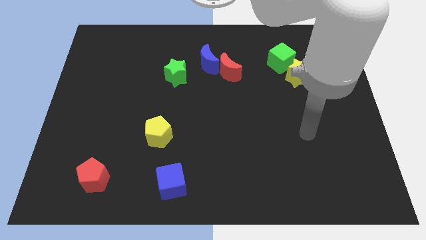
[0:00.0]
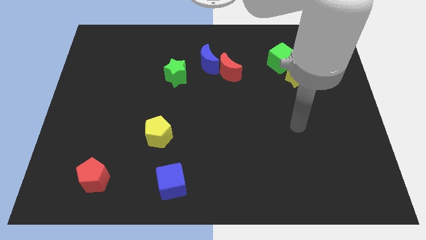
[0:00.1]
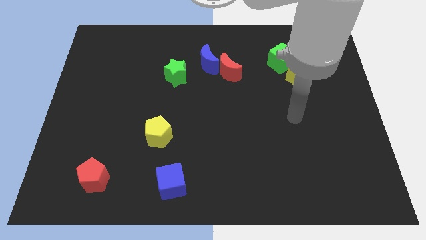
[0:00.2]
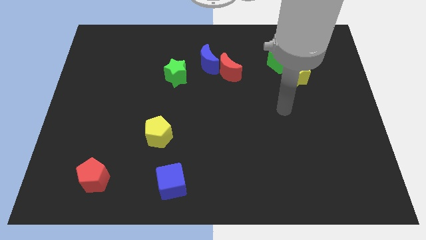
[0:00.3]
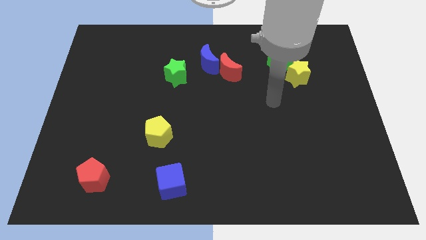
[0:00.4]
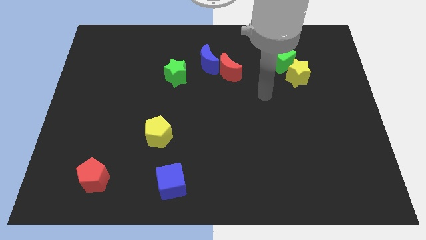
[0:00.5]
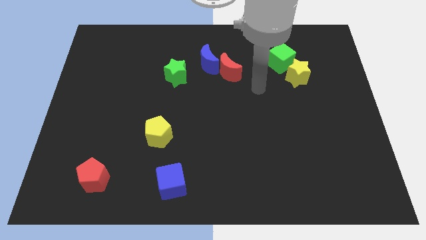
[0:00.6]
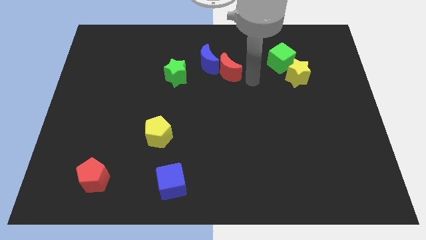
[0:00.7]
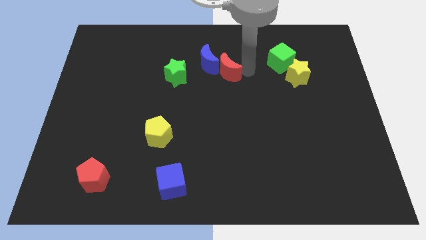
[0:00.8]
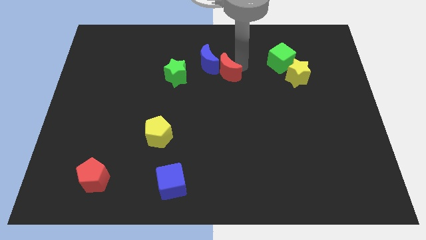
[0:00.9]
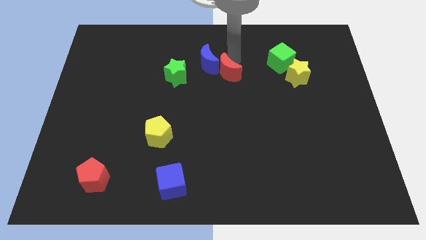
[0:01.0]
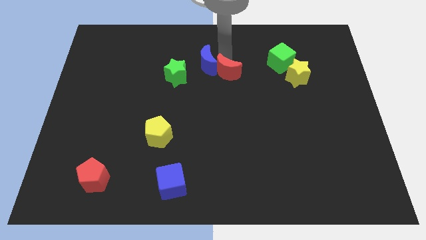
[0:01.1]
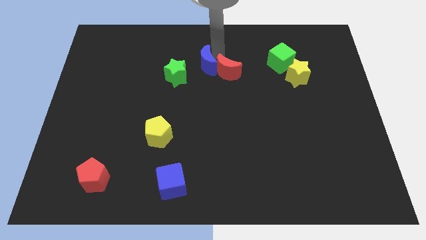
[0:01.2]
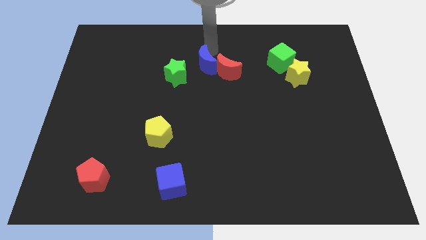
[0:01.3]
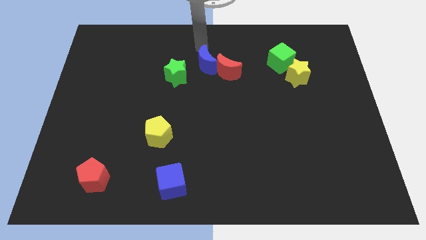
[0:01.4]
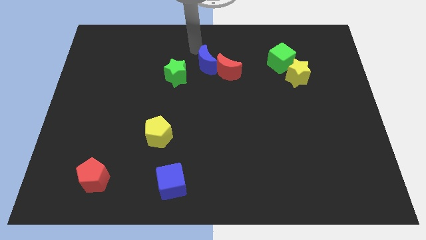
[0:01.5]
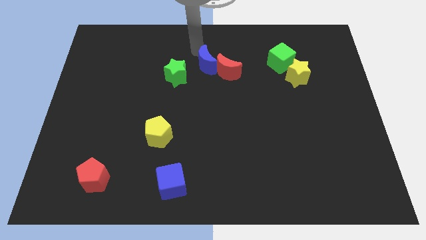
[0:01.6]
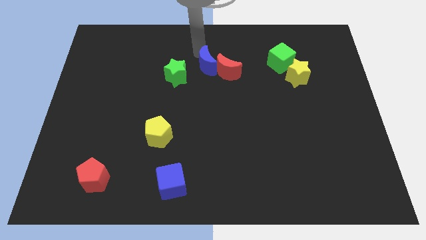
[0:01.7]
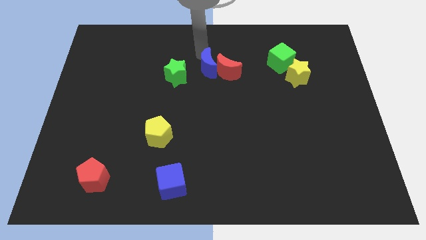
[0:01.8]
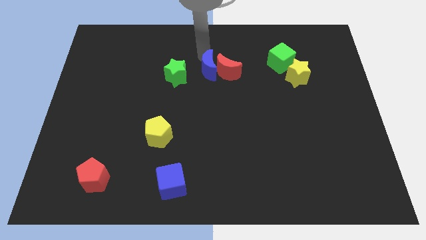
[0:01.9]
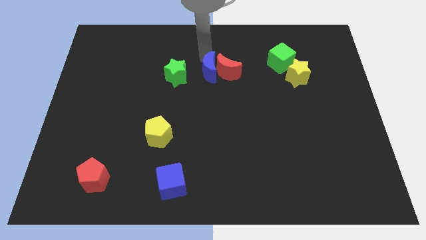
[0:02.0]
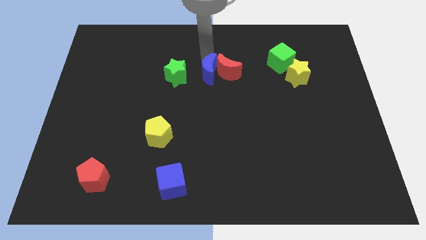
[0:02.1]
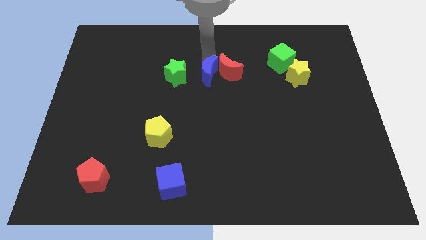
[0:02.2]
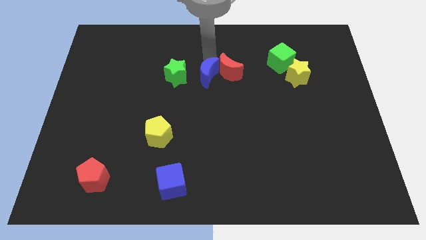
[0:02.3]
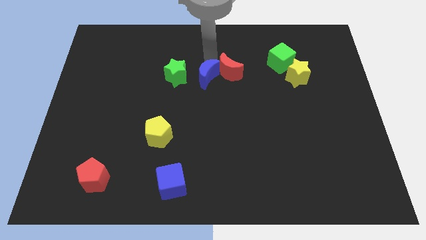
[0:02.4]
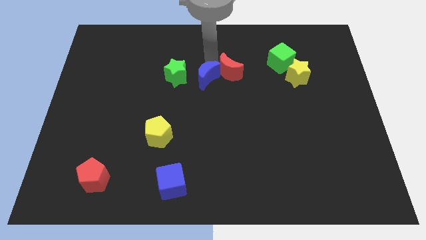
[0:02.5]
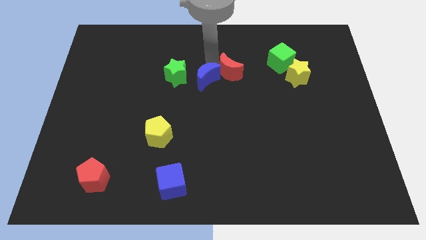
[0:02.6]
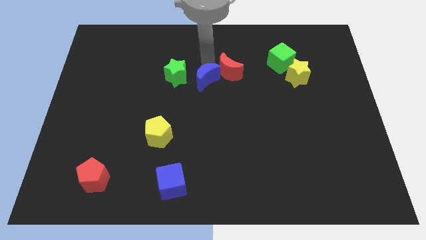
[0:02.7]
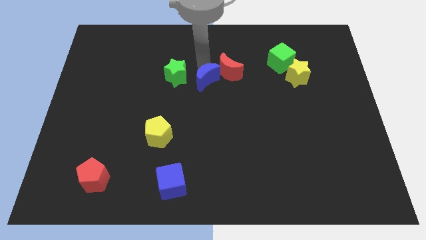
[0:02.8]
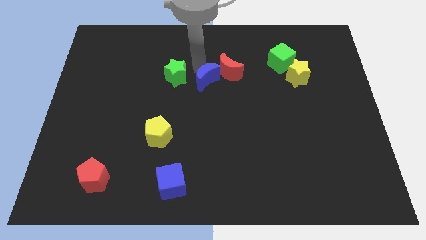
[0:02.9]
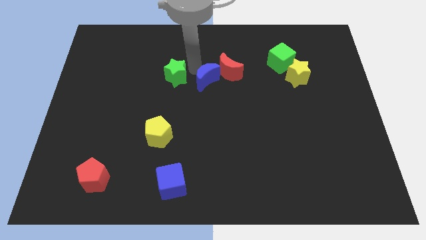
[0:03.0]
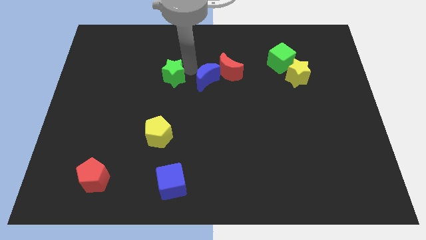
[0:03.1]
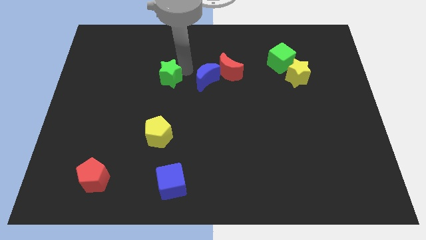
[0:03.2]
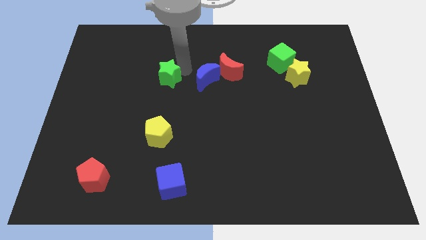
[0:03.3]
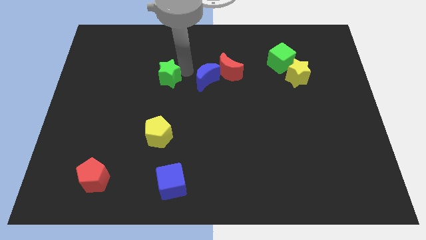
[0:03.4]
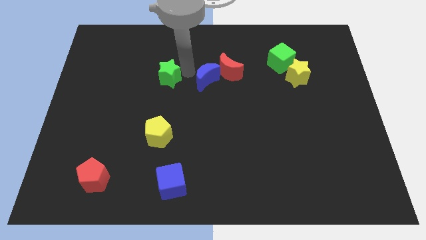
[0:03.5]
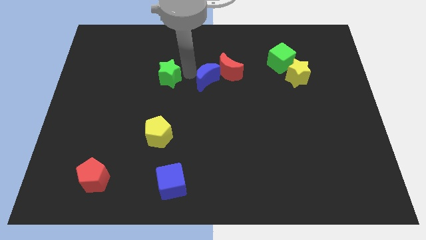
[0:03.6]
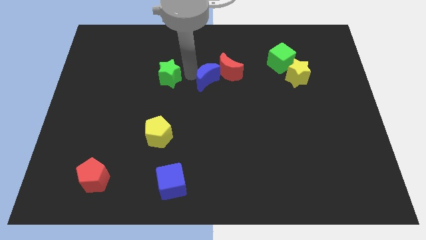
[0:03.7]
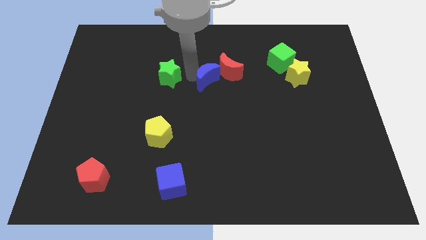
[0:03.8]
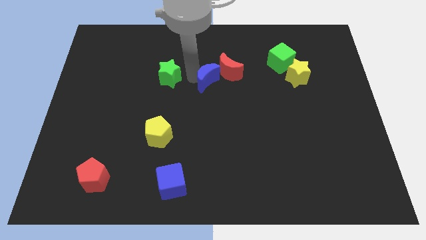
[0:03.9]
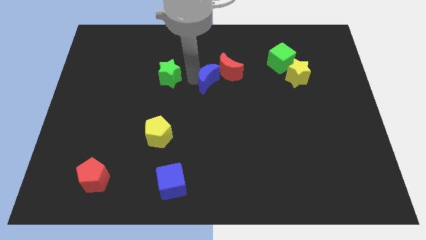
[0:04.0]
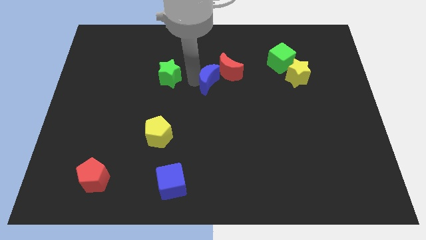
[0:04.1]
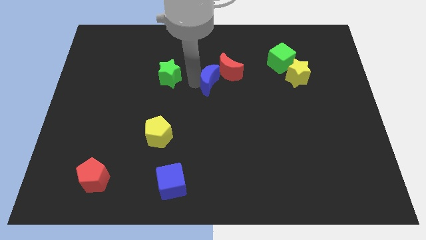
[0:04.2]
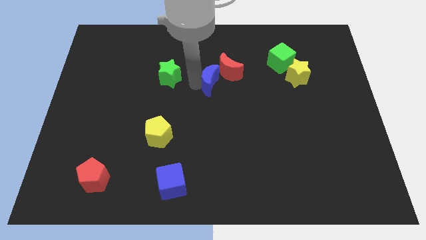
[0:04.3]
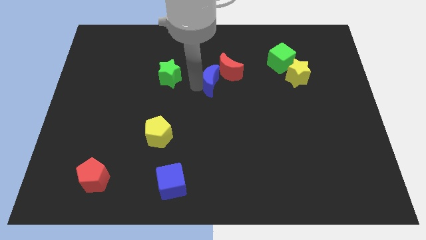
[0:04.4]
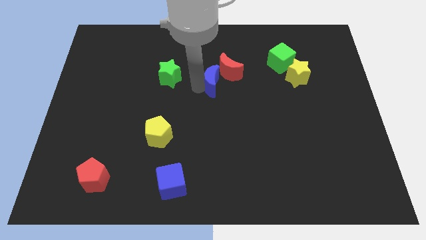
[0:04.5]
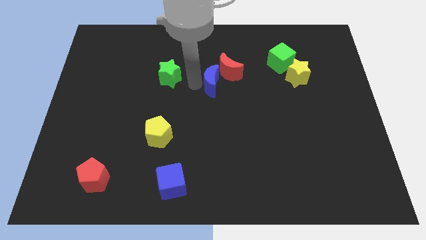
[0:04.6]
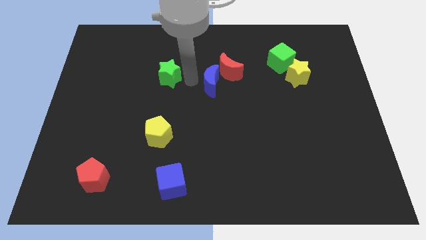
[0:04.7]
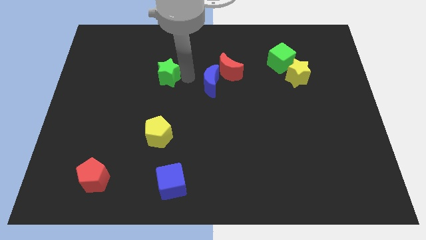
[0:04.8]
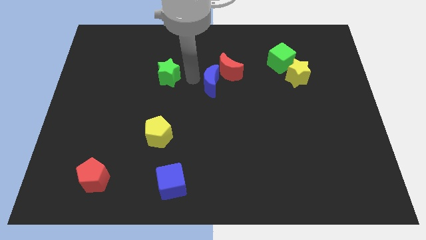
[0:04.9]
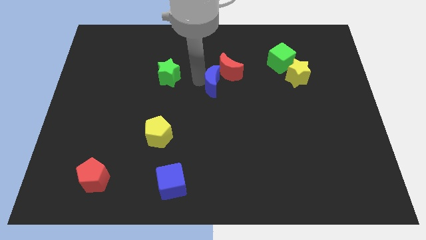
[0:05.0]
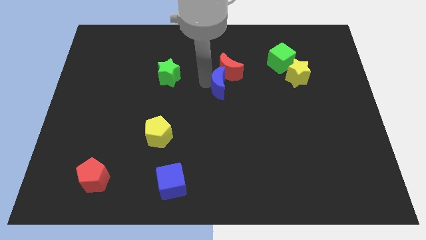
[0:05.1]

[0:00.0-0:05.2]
push the blue moon somewhat diagonally down and right

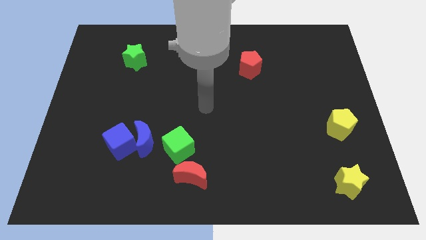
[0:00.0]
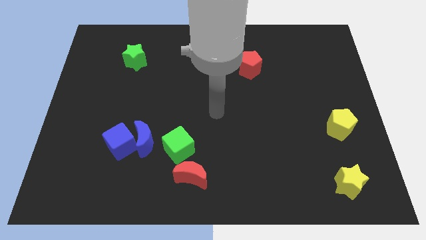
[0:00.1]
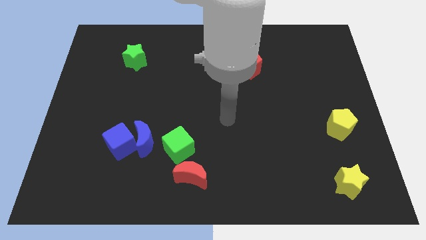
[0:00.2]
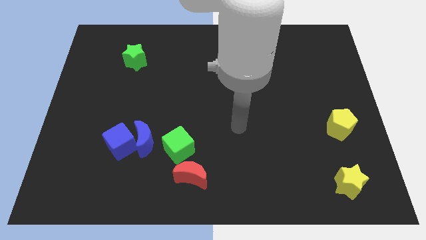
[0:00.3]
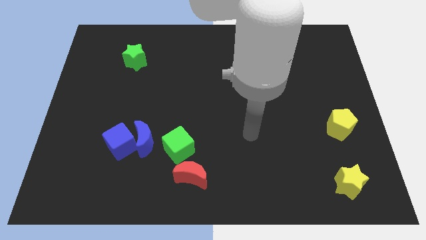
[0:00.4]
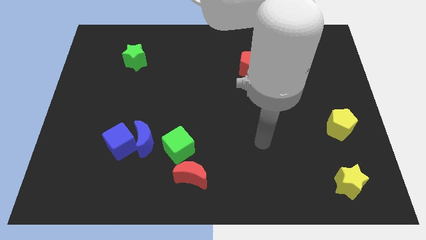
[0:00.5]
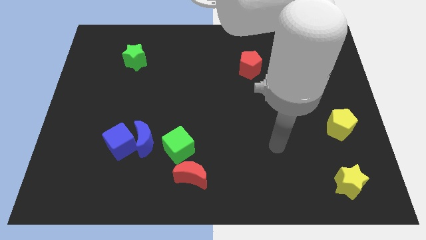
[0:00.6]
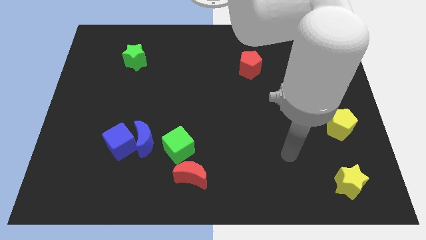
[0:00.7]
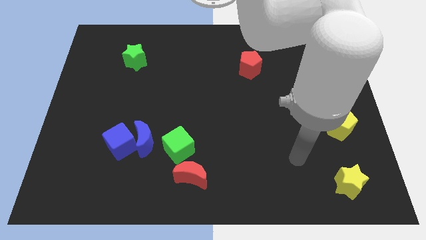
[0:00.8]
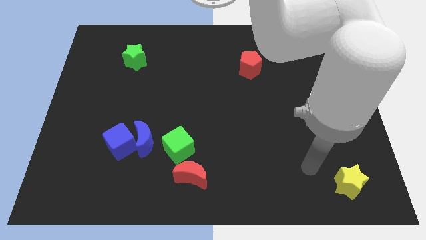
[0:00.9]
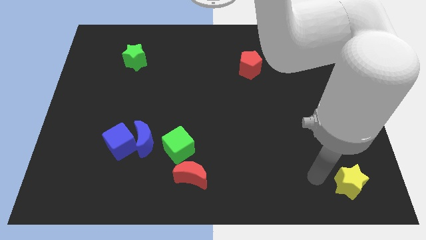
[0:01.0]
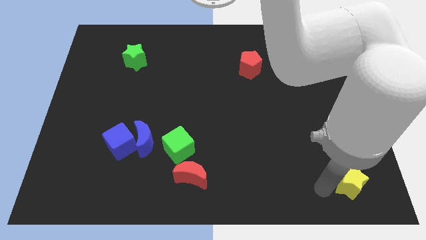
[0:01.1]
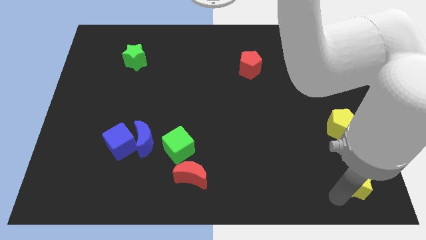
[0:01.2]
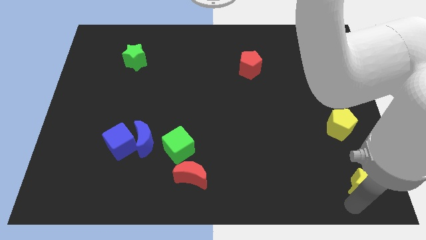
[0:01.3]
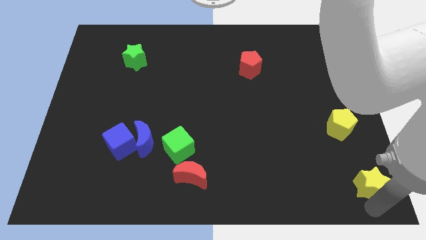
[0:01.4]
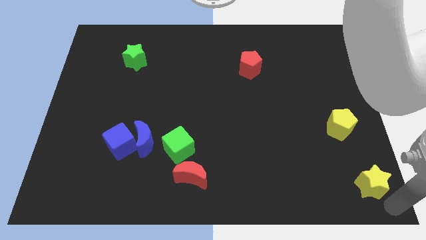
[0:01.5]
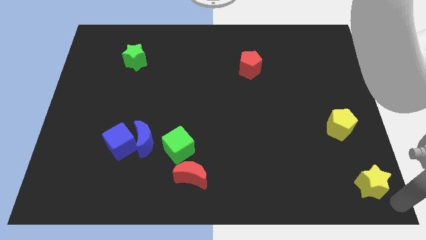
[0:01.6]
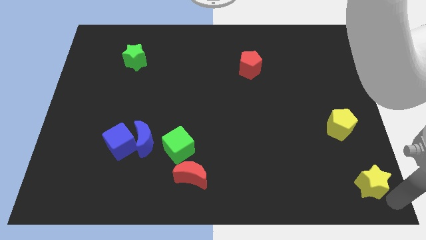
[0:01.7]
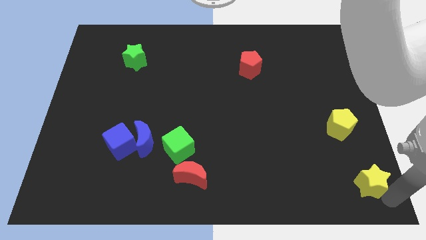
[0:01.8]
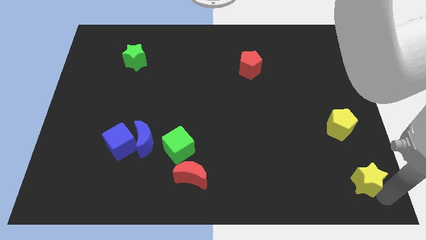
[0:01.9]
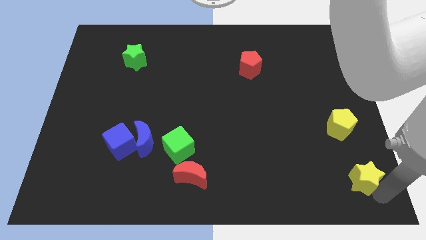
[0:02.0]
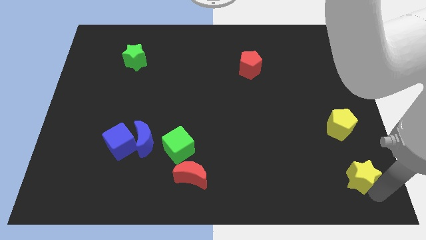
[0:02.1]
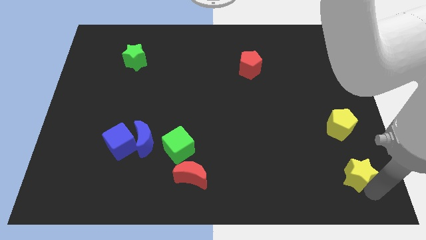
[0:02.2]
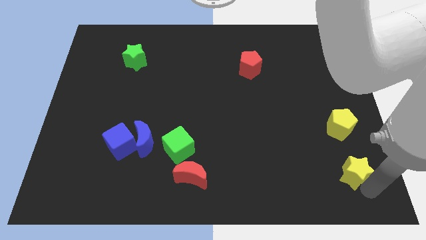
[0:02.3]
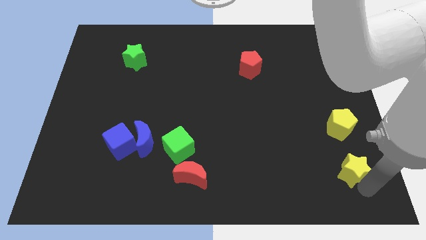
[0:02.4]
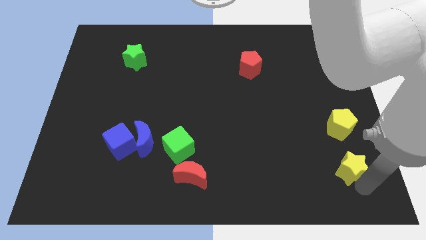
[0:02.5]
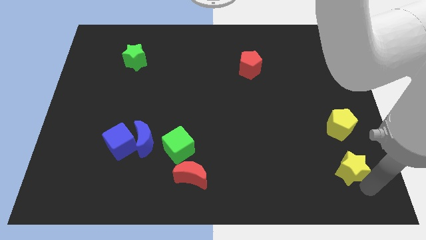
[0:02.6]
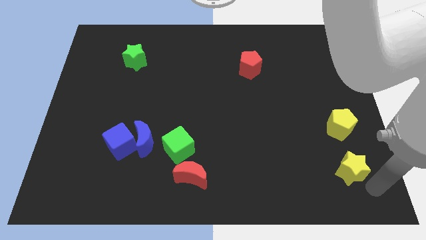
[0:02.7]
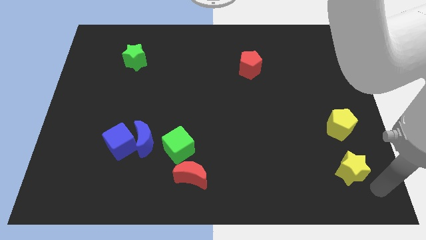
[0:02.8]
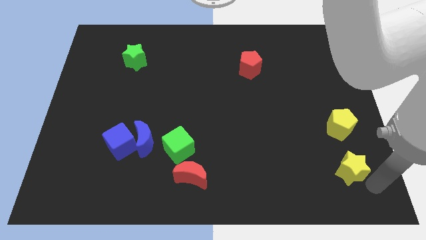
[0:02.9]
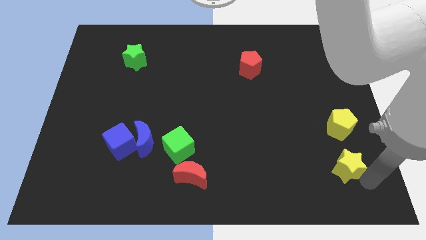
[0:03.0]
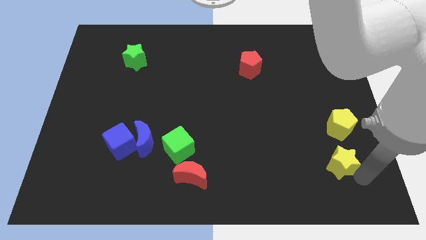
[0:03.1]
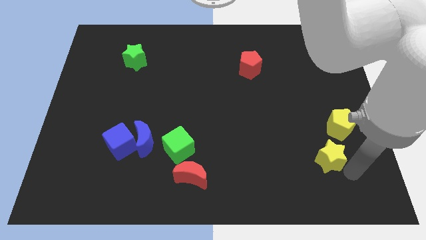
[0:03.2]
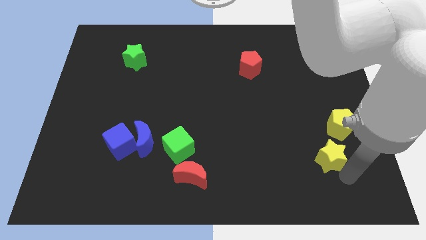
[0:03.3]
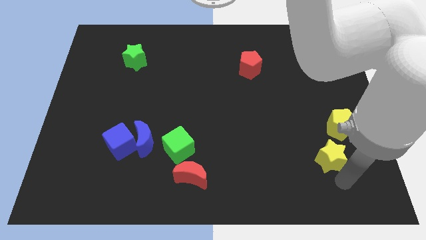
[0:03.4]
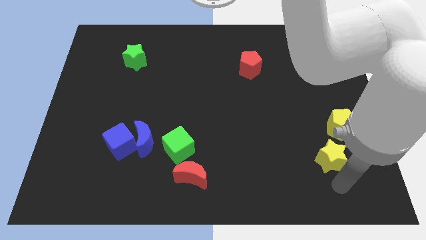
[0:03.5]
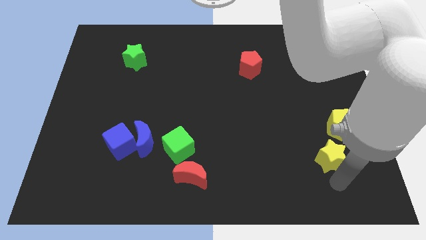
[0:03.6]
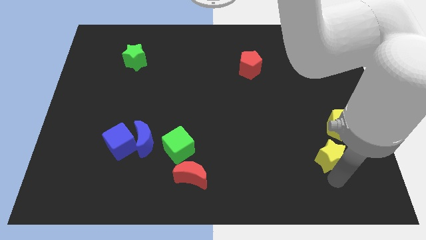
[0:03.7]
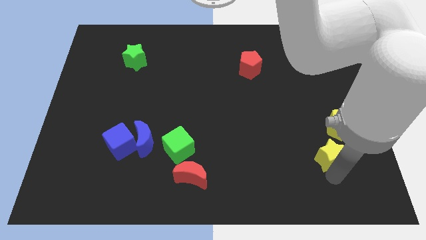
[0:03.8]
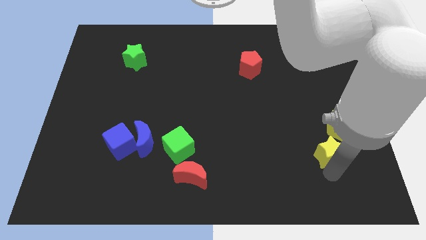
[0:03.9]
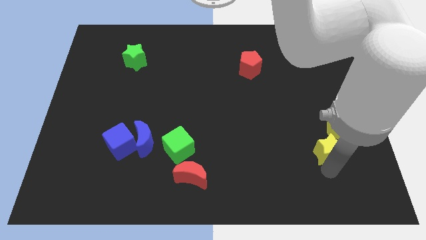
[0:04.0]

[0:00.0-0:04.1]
move the yellow star a little up
